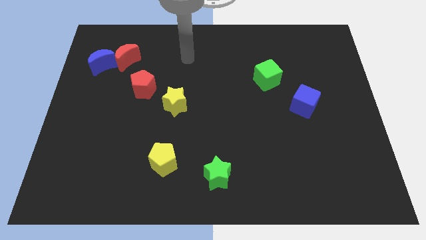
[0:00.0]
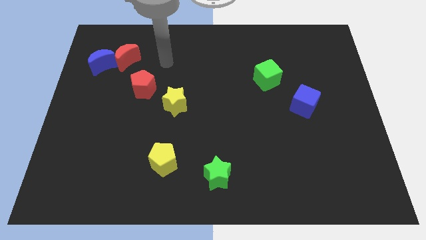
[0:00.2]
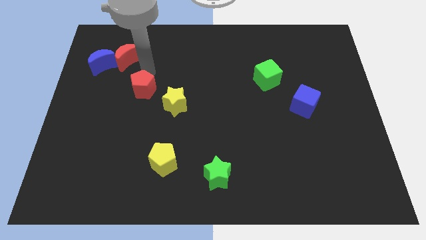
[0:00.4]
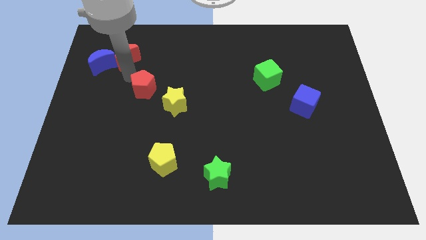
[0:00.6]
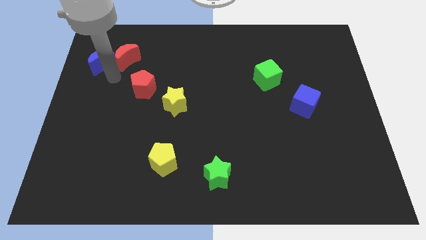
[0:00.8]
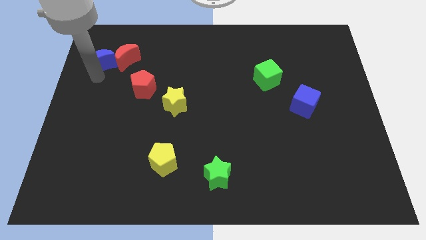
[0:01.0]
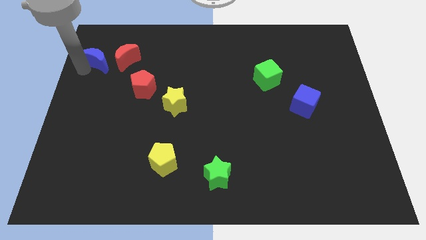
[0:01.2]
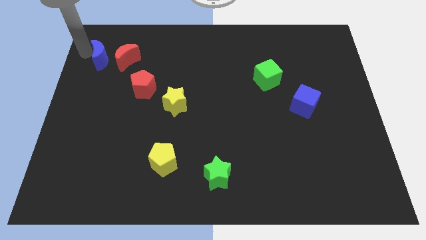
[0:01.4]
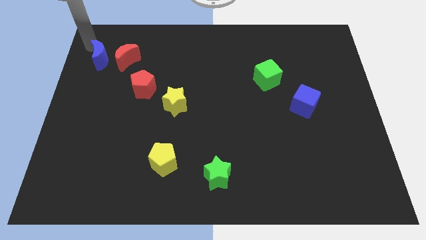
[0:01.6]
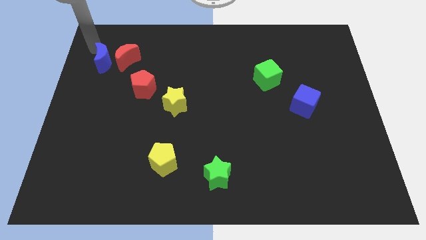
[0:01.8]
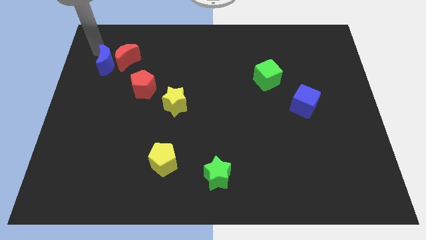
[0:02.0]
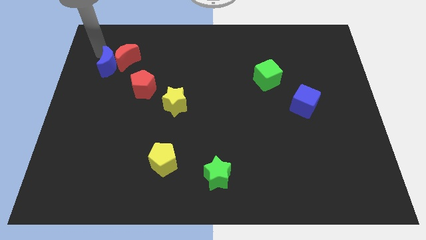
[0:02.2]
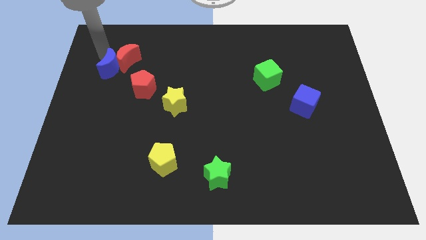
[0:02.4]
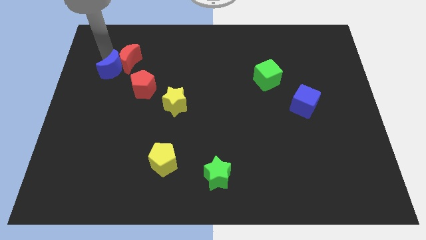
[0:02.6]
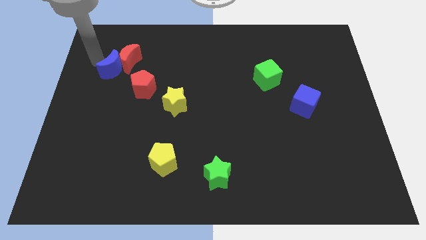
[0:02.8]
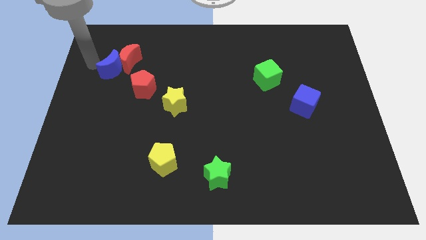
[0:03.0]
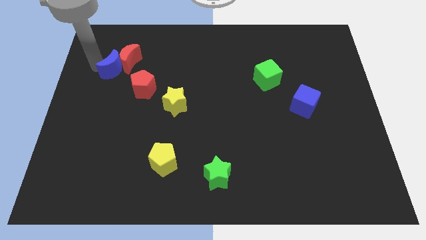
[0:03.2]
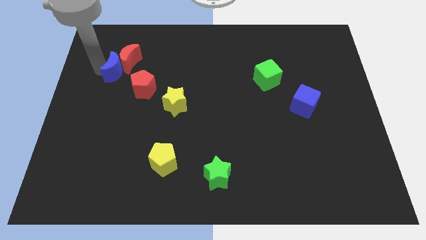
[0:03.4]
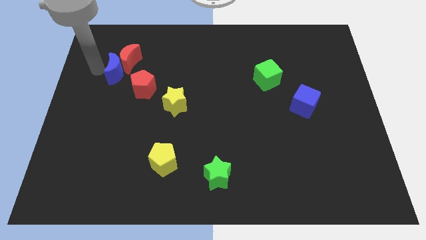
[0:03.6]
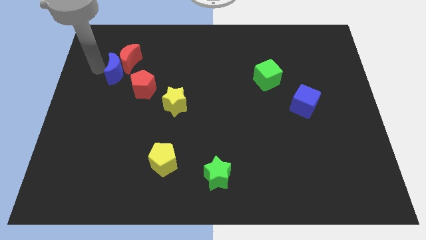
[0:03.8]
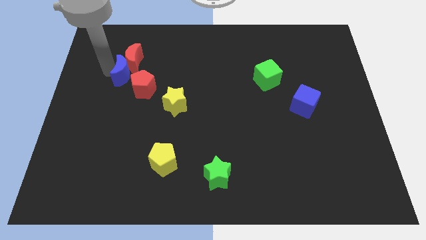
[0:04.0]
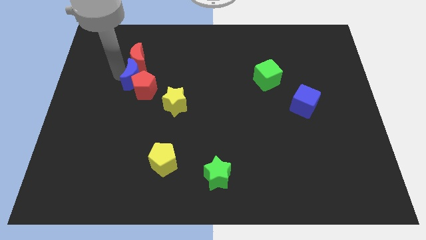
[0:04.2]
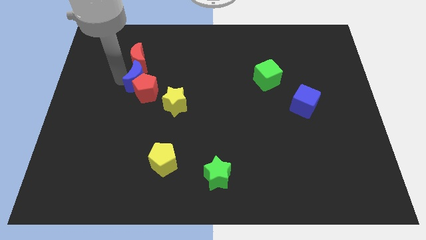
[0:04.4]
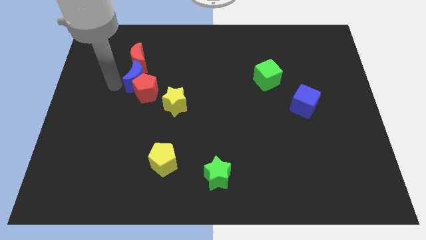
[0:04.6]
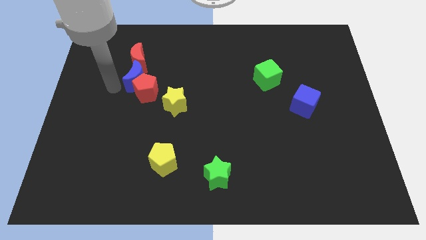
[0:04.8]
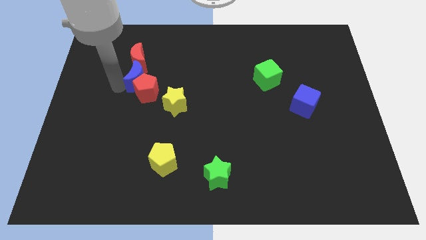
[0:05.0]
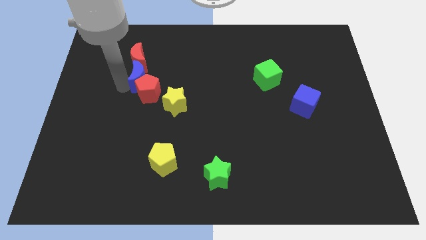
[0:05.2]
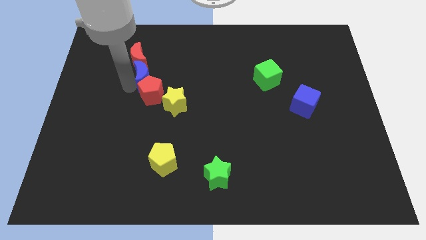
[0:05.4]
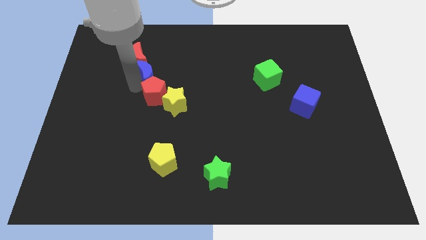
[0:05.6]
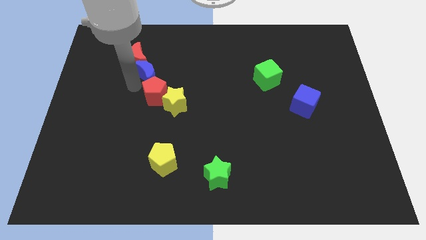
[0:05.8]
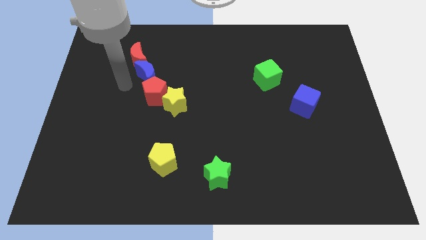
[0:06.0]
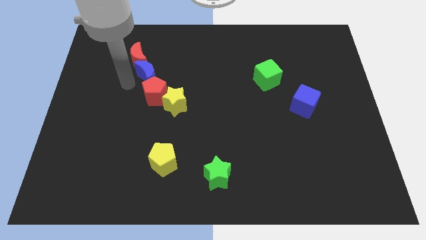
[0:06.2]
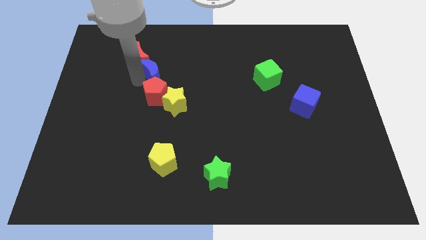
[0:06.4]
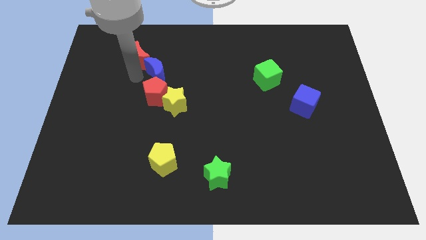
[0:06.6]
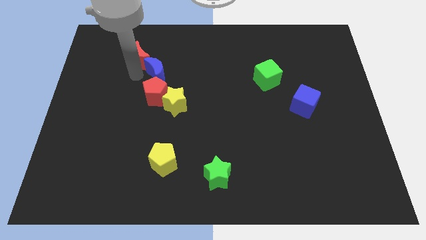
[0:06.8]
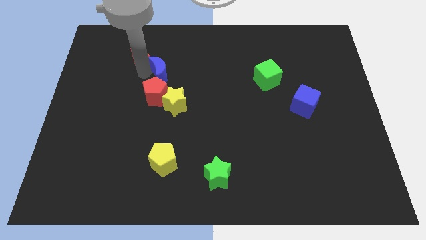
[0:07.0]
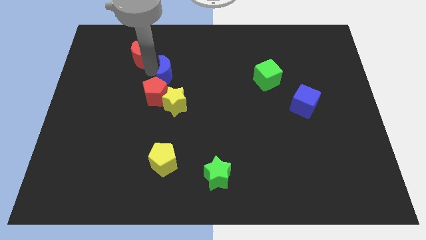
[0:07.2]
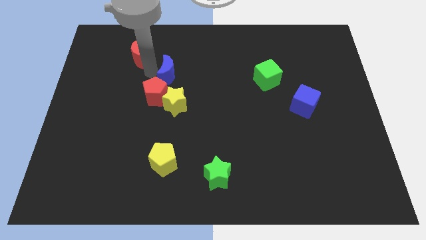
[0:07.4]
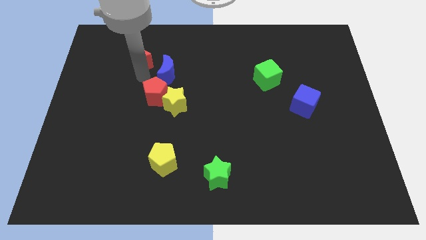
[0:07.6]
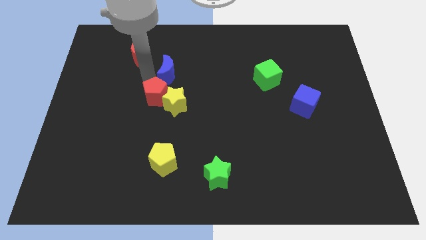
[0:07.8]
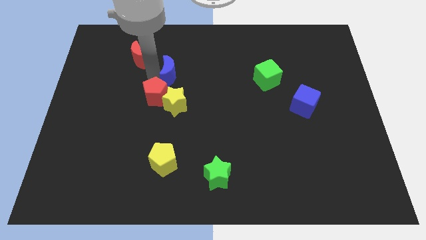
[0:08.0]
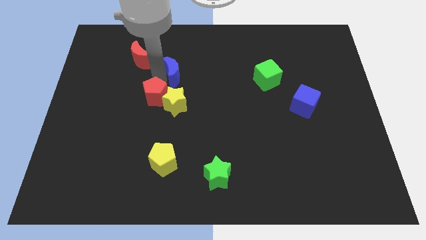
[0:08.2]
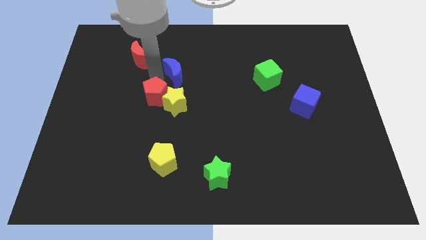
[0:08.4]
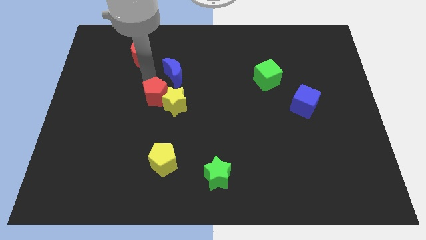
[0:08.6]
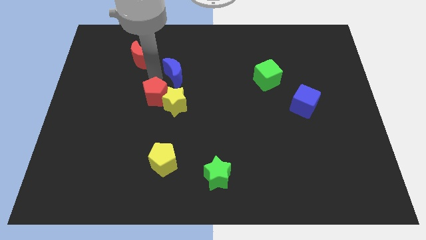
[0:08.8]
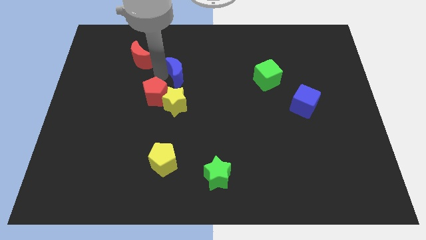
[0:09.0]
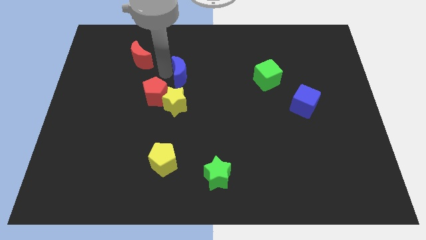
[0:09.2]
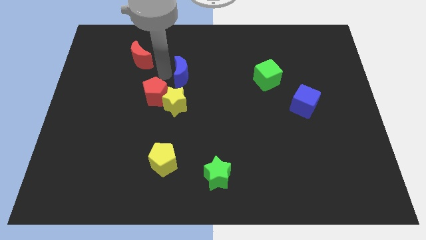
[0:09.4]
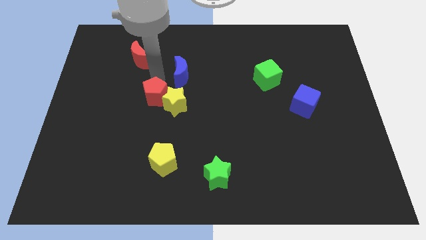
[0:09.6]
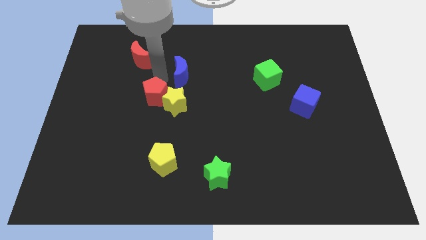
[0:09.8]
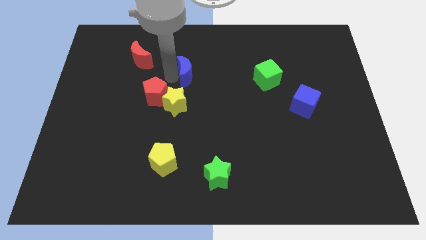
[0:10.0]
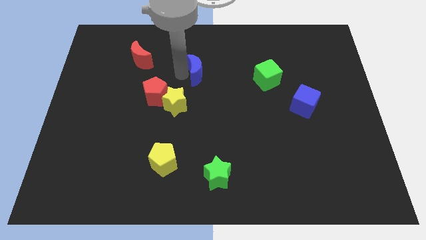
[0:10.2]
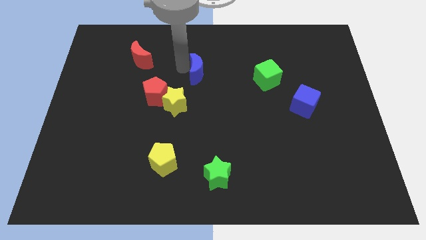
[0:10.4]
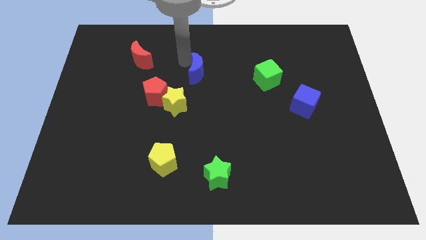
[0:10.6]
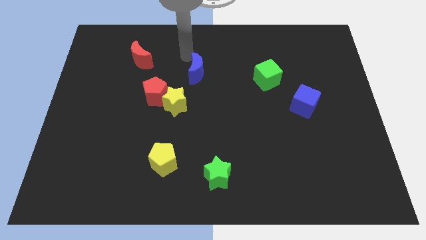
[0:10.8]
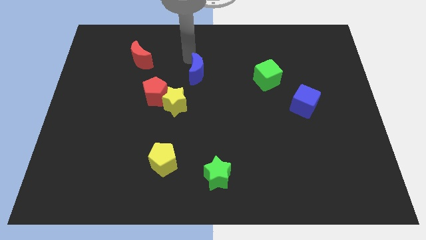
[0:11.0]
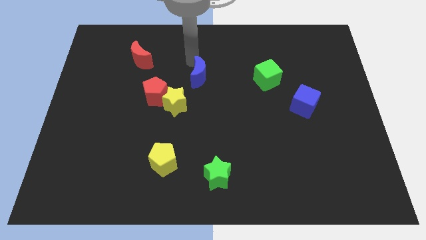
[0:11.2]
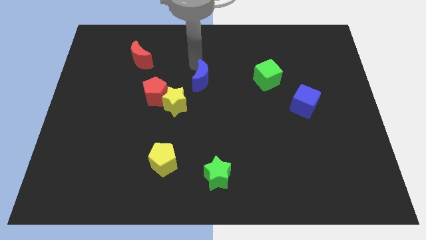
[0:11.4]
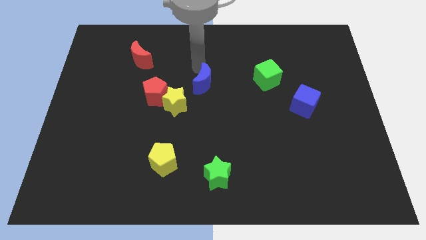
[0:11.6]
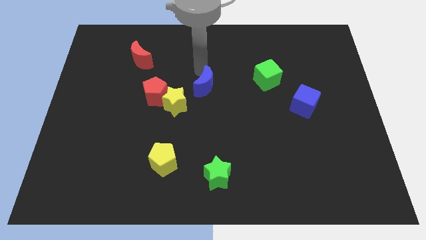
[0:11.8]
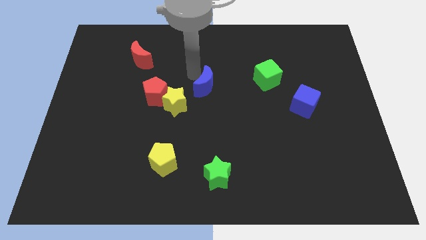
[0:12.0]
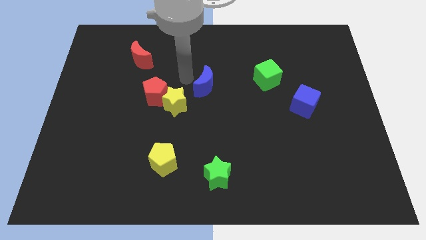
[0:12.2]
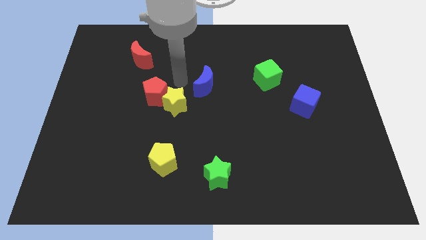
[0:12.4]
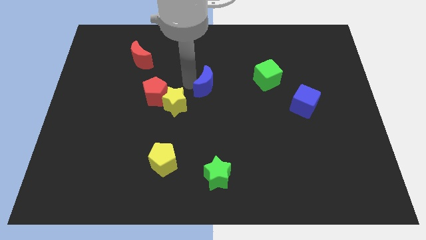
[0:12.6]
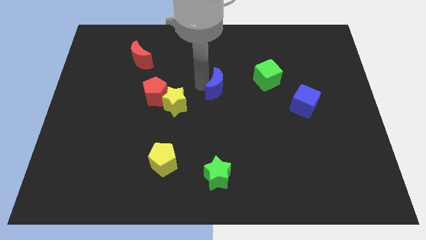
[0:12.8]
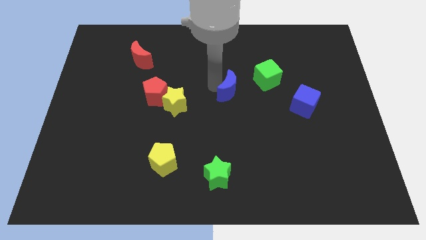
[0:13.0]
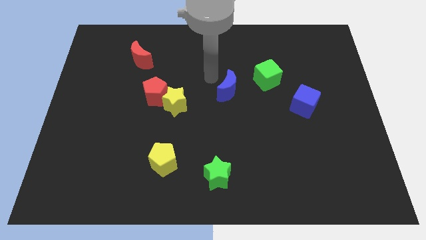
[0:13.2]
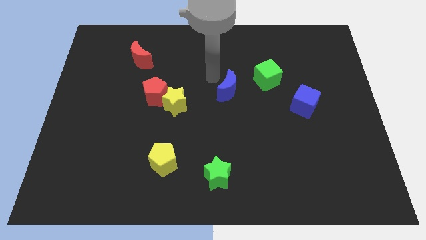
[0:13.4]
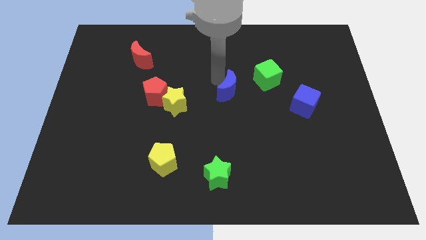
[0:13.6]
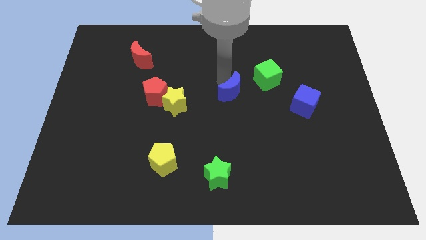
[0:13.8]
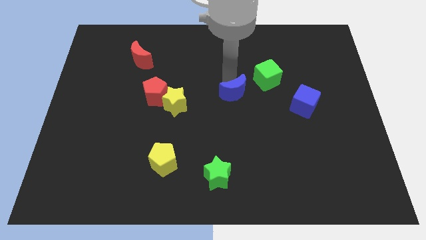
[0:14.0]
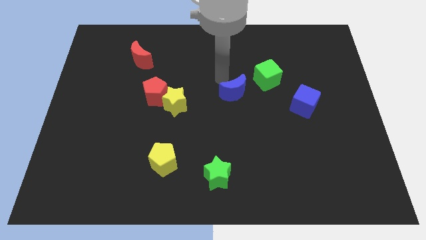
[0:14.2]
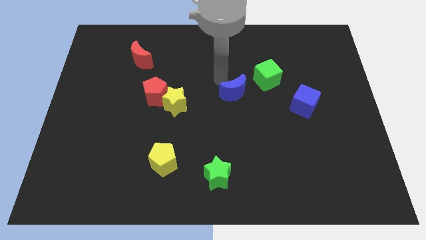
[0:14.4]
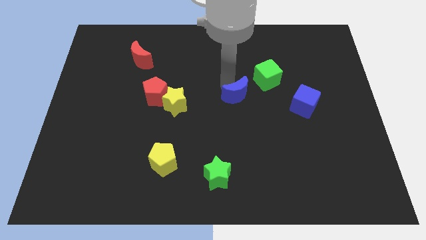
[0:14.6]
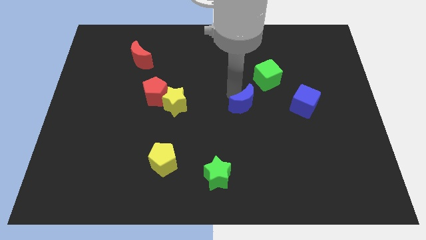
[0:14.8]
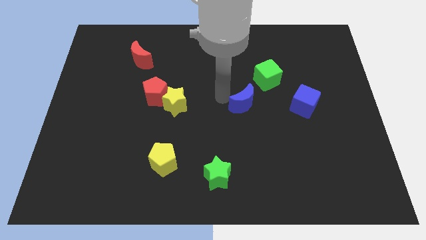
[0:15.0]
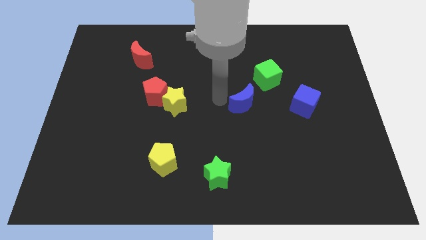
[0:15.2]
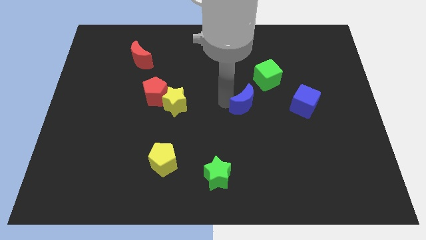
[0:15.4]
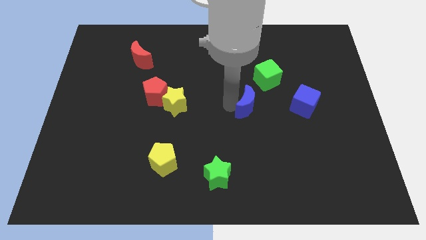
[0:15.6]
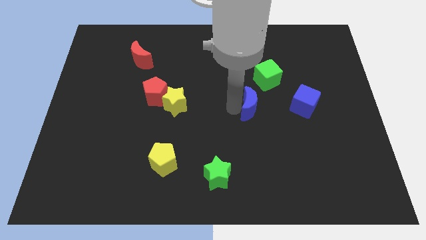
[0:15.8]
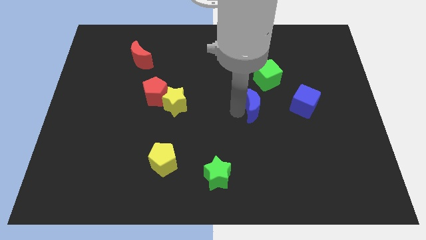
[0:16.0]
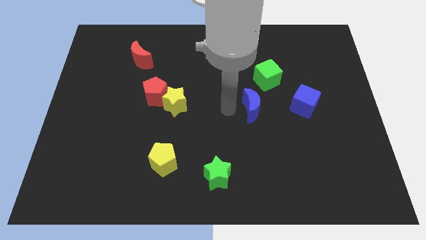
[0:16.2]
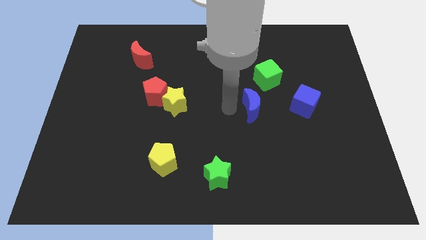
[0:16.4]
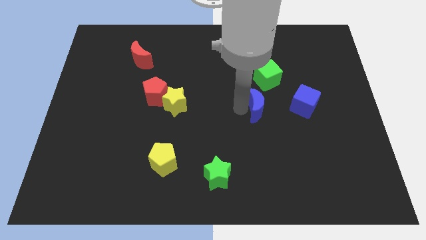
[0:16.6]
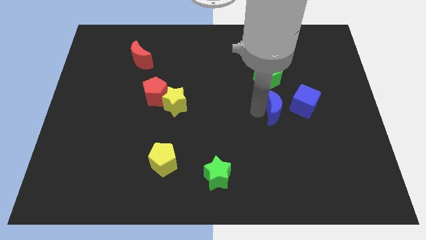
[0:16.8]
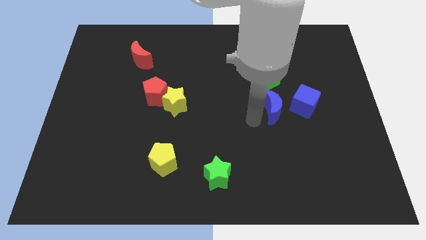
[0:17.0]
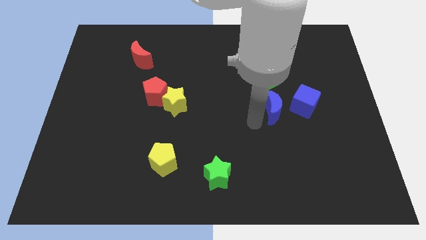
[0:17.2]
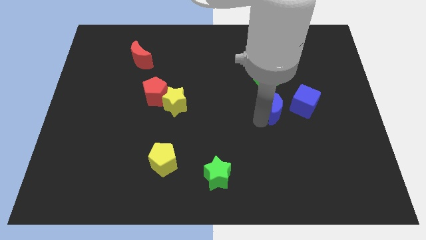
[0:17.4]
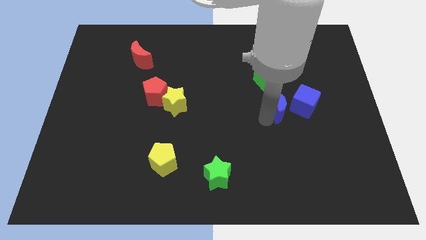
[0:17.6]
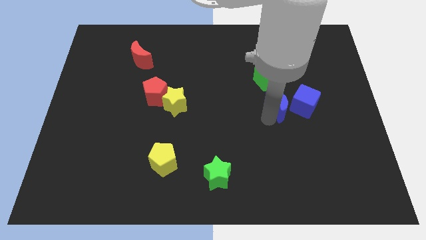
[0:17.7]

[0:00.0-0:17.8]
put the blue moon towards the blue cube
